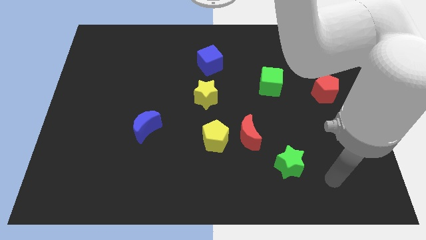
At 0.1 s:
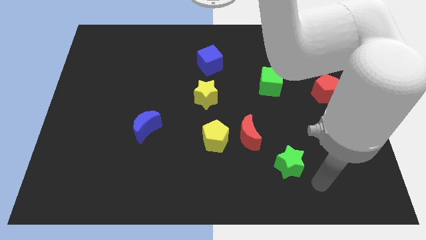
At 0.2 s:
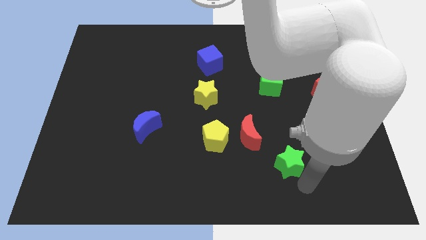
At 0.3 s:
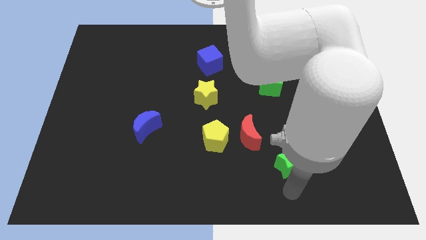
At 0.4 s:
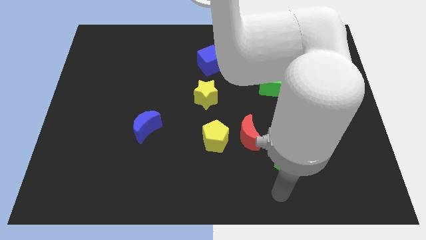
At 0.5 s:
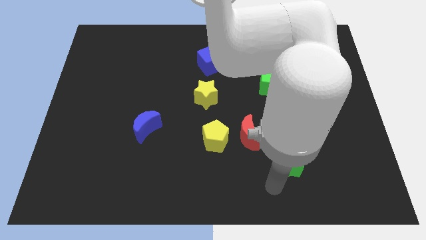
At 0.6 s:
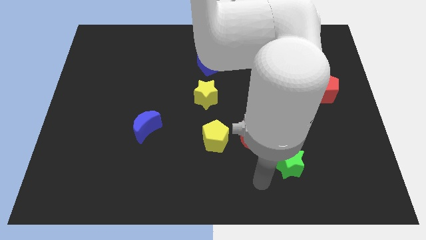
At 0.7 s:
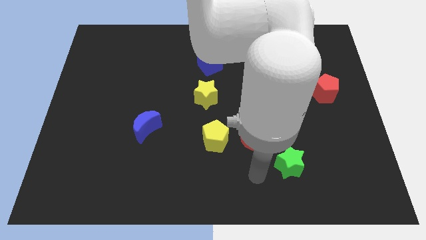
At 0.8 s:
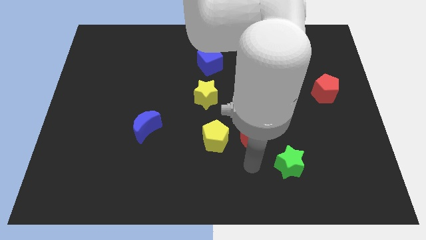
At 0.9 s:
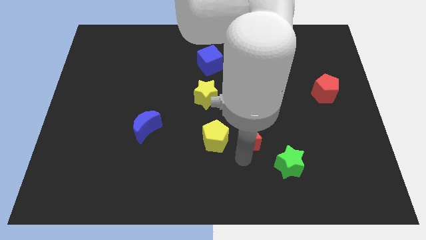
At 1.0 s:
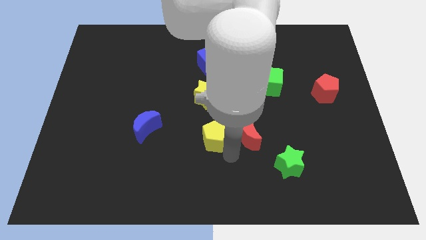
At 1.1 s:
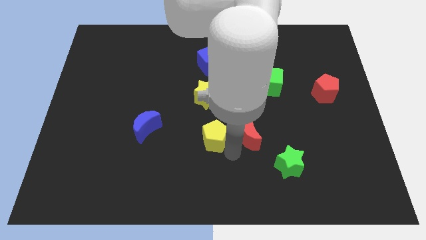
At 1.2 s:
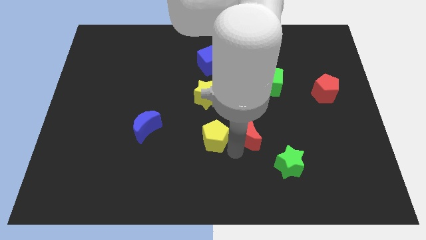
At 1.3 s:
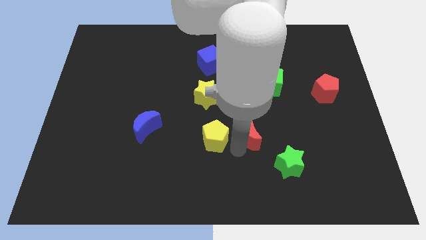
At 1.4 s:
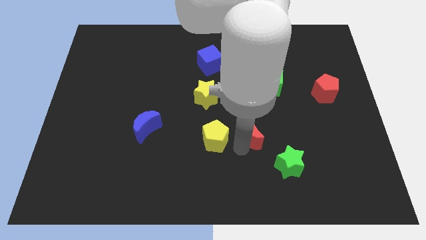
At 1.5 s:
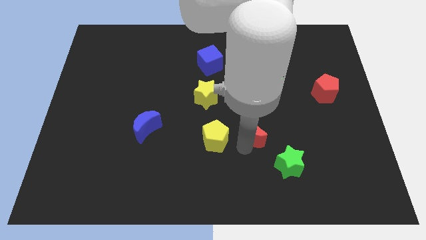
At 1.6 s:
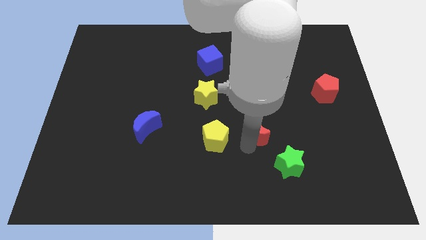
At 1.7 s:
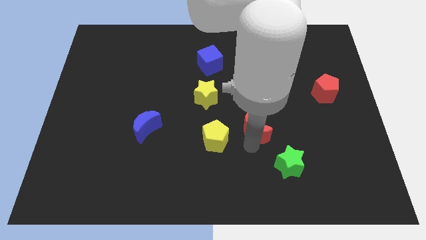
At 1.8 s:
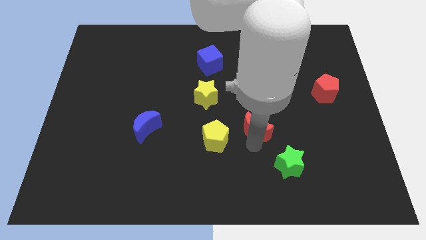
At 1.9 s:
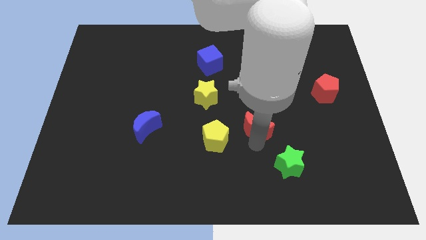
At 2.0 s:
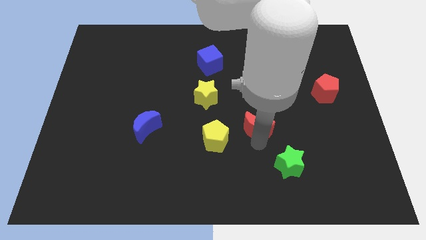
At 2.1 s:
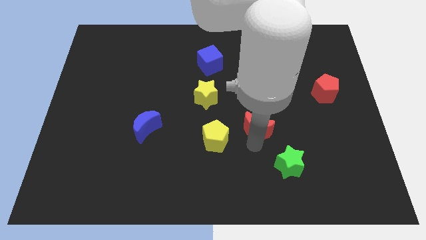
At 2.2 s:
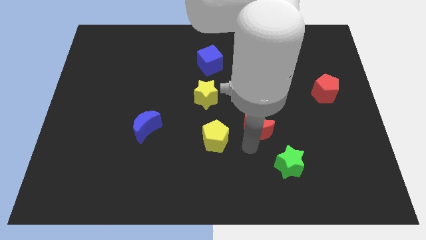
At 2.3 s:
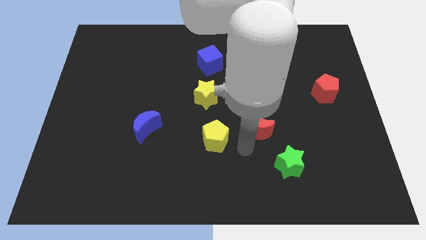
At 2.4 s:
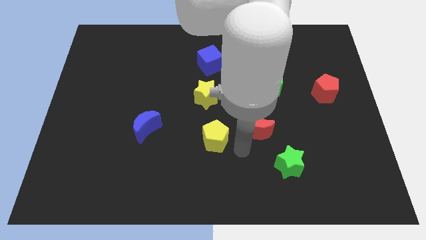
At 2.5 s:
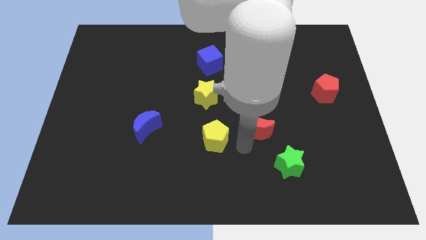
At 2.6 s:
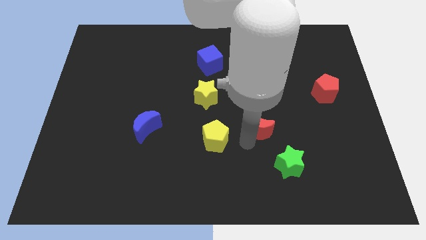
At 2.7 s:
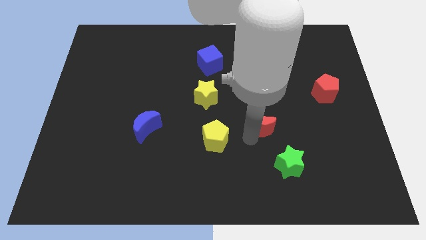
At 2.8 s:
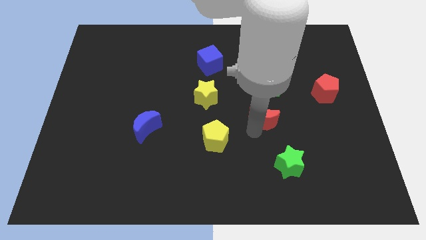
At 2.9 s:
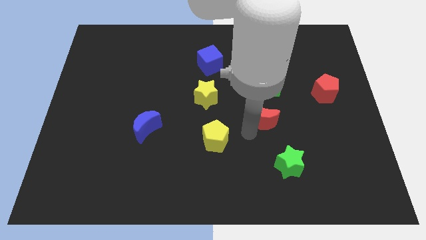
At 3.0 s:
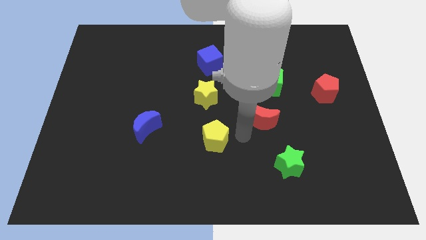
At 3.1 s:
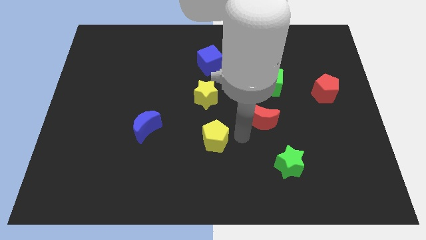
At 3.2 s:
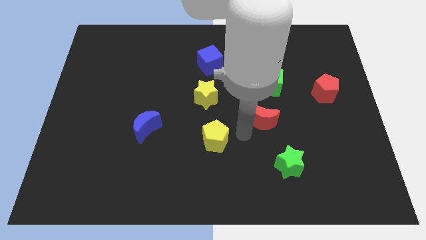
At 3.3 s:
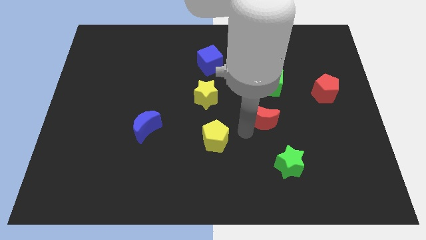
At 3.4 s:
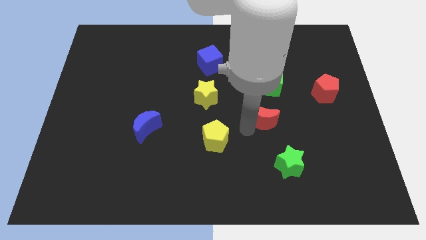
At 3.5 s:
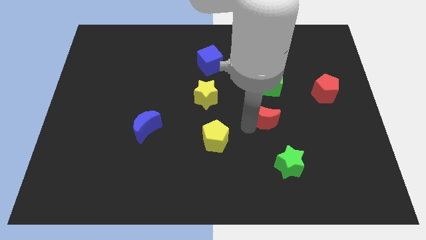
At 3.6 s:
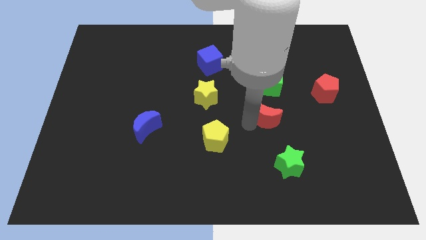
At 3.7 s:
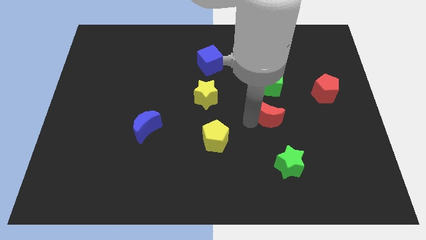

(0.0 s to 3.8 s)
slightly push the red moon diagonally upwards and to the right

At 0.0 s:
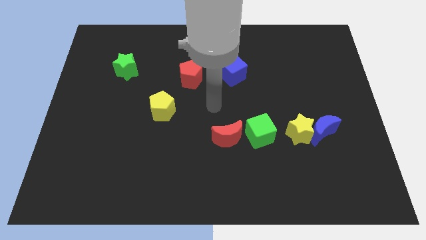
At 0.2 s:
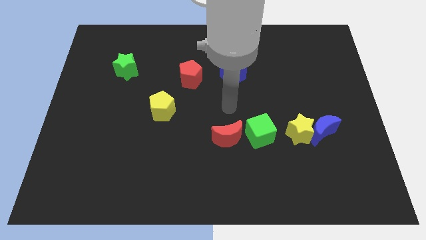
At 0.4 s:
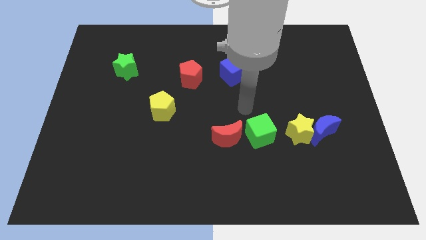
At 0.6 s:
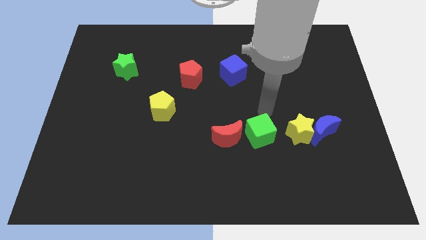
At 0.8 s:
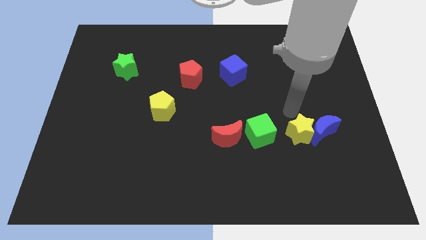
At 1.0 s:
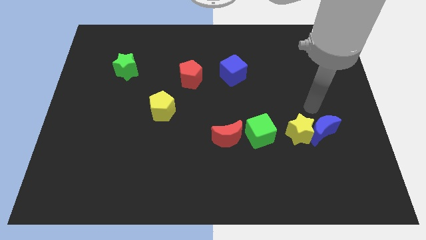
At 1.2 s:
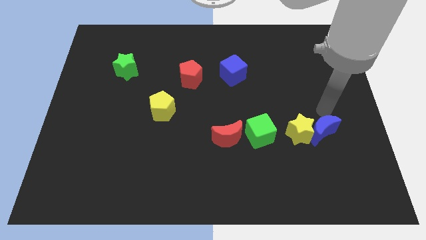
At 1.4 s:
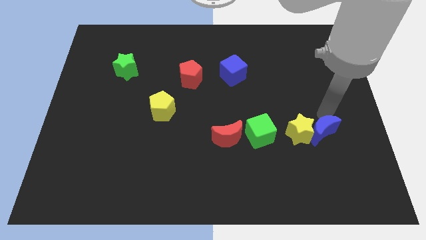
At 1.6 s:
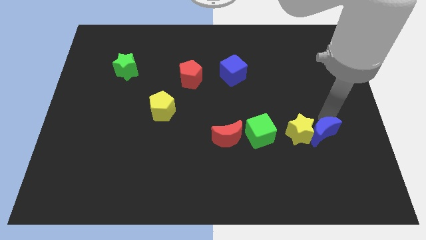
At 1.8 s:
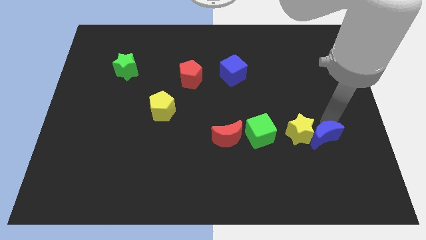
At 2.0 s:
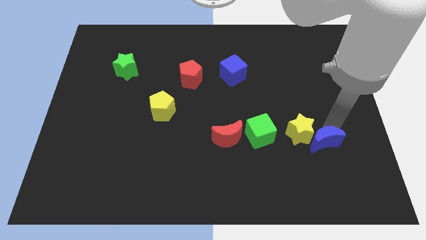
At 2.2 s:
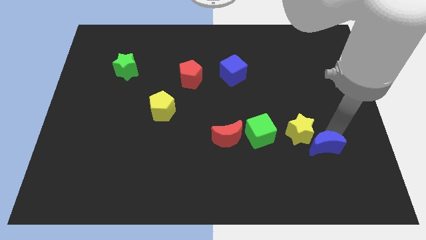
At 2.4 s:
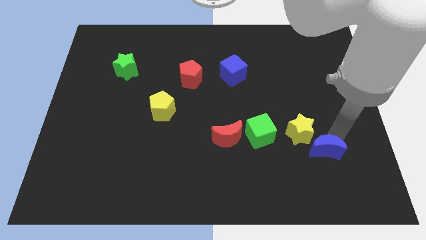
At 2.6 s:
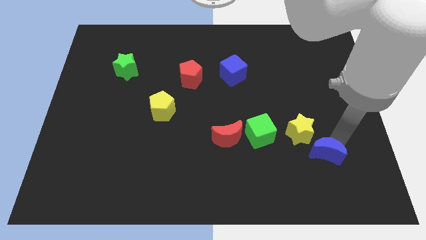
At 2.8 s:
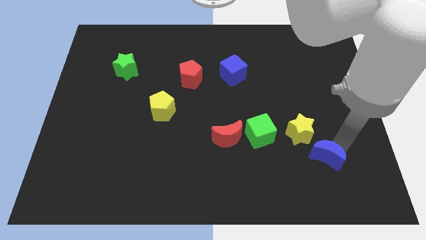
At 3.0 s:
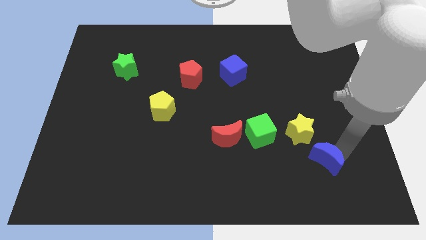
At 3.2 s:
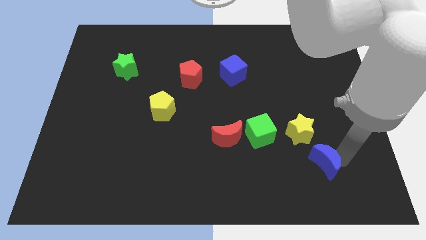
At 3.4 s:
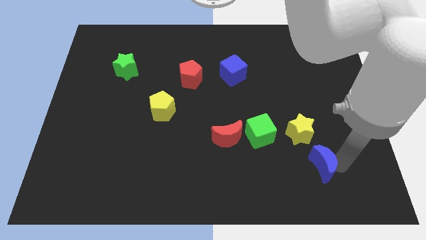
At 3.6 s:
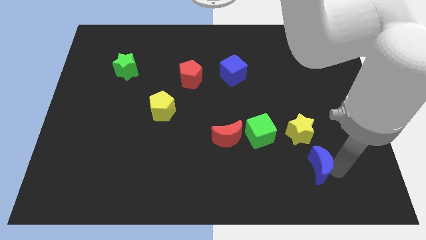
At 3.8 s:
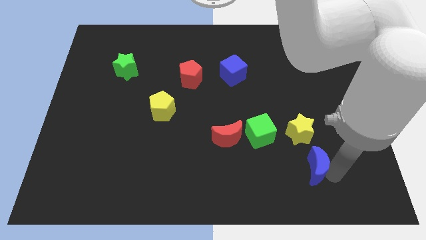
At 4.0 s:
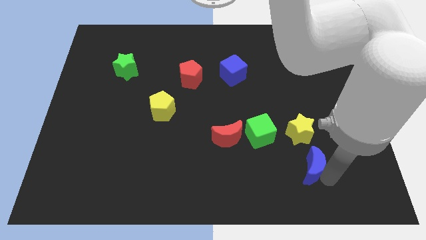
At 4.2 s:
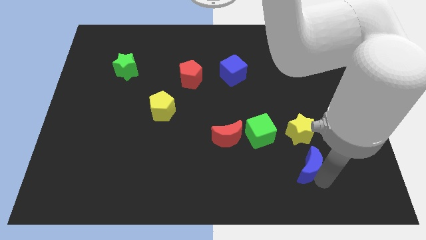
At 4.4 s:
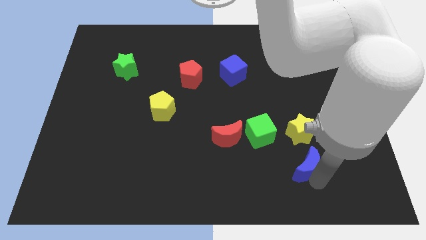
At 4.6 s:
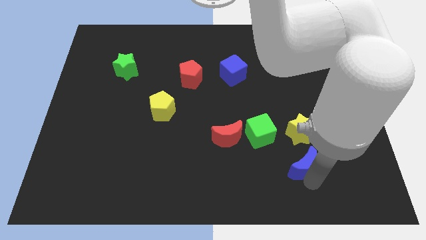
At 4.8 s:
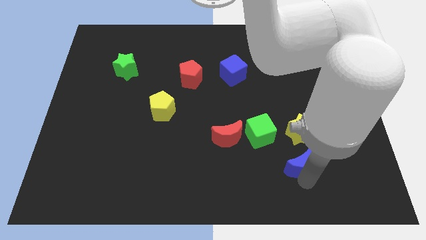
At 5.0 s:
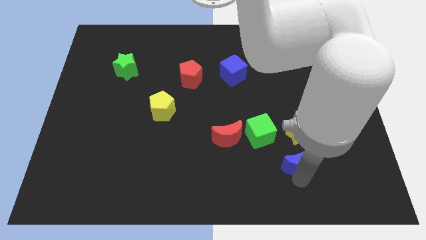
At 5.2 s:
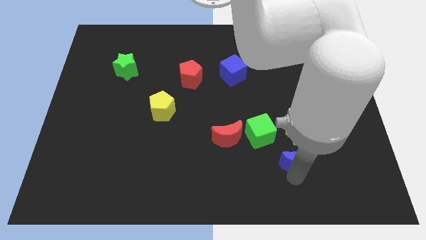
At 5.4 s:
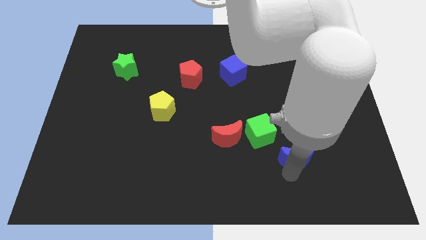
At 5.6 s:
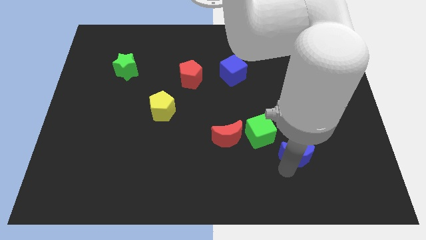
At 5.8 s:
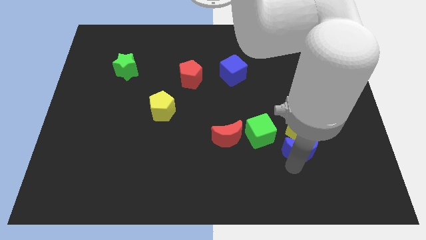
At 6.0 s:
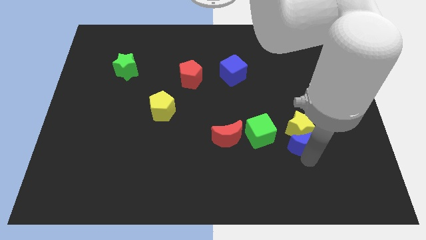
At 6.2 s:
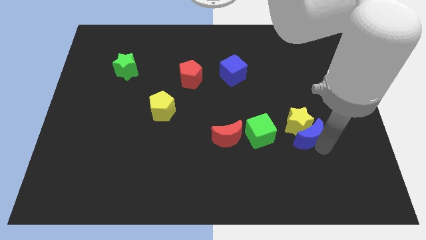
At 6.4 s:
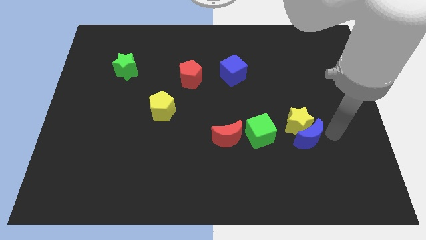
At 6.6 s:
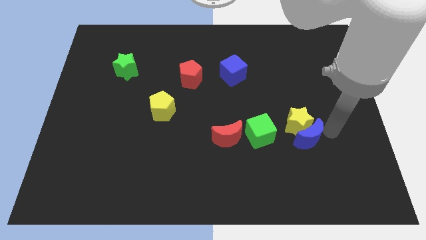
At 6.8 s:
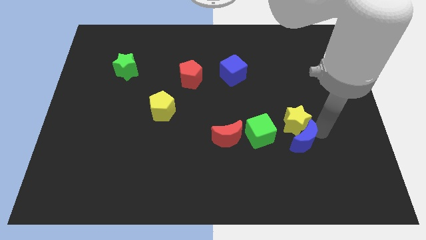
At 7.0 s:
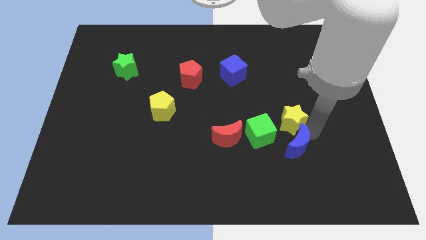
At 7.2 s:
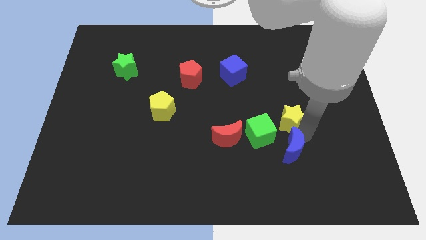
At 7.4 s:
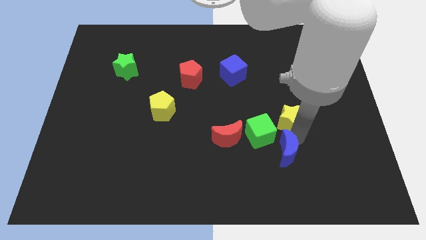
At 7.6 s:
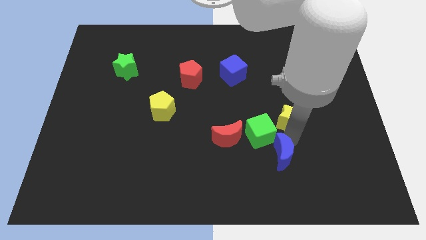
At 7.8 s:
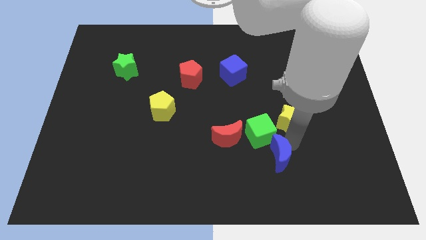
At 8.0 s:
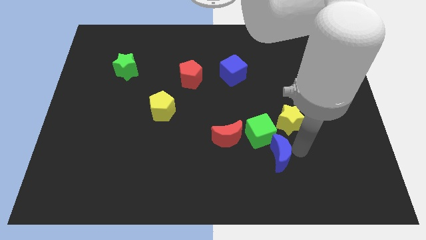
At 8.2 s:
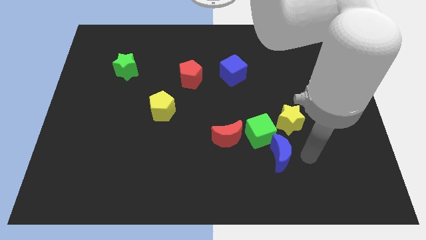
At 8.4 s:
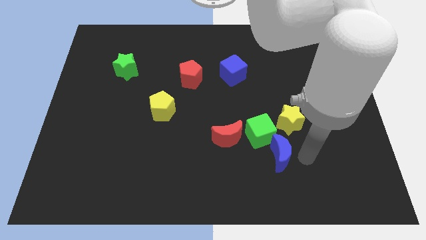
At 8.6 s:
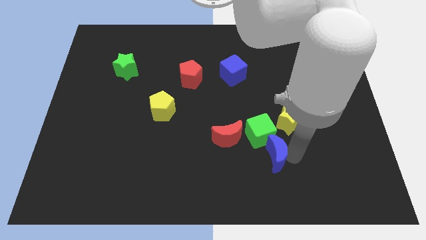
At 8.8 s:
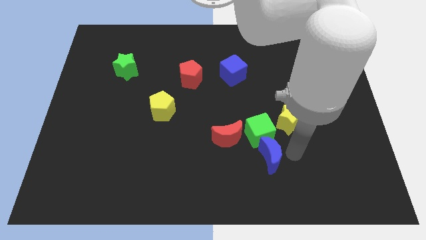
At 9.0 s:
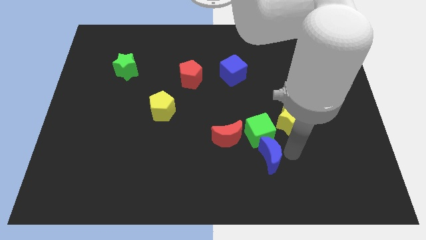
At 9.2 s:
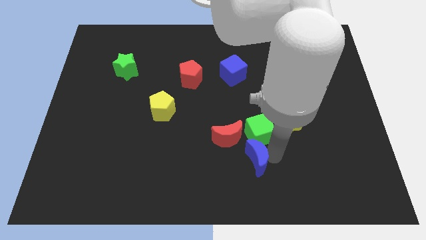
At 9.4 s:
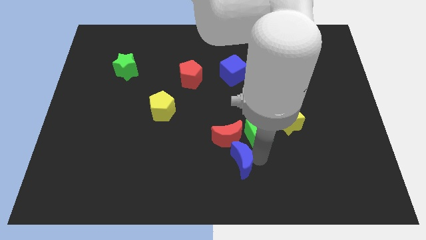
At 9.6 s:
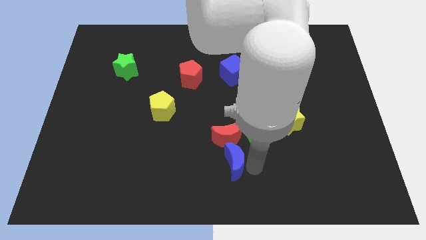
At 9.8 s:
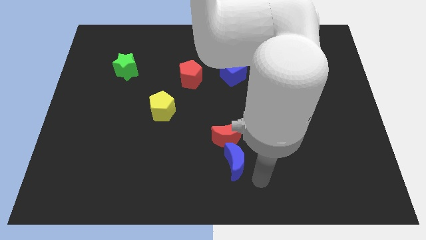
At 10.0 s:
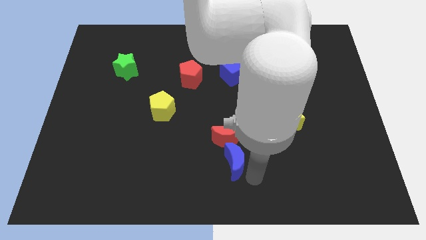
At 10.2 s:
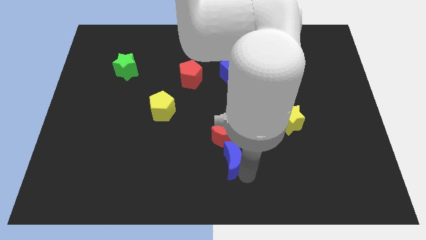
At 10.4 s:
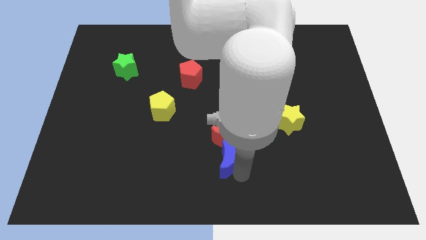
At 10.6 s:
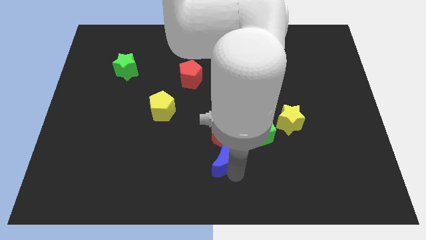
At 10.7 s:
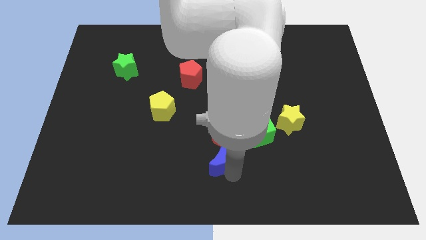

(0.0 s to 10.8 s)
push the blue moon left
